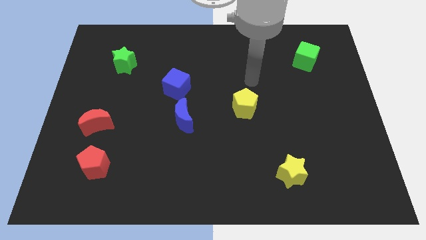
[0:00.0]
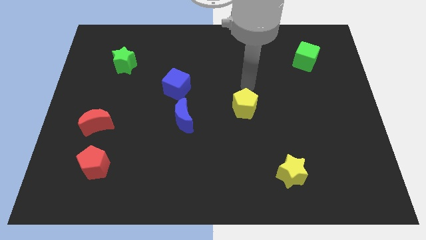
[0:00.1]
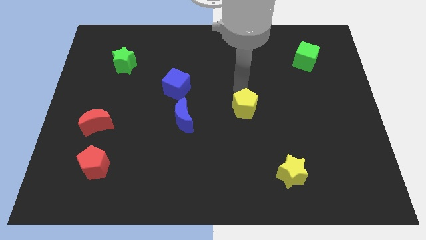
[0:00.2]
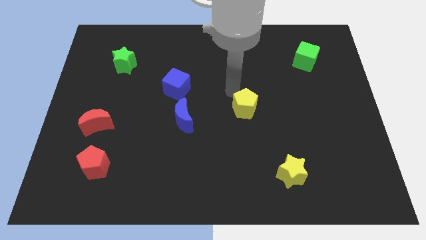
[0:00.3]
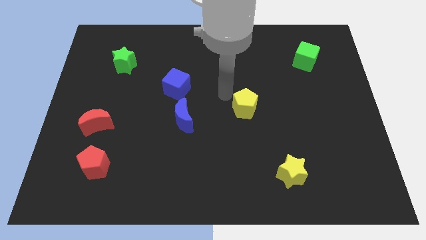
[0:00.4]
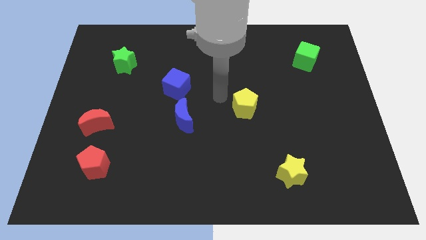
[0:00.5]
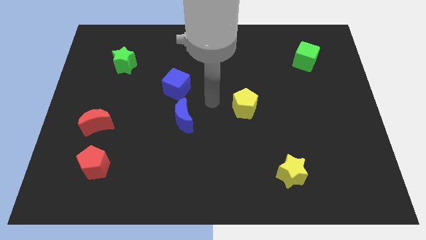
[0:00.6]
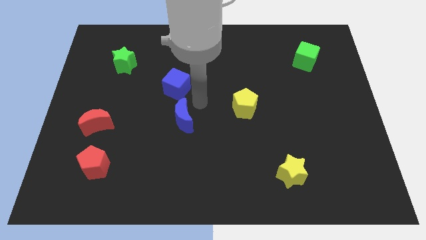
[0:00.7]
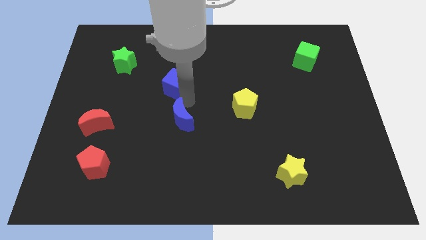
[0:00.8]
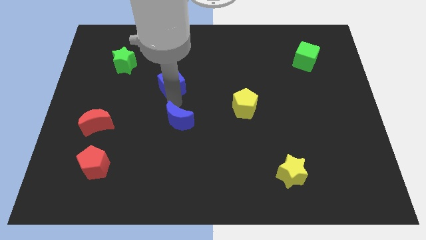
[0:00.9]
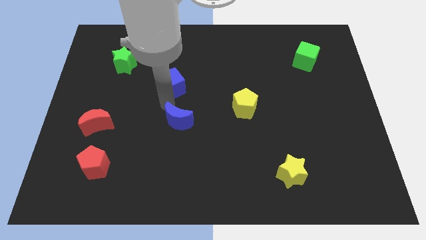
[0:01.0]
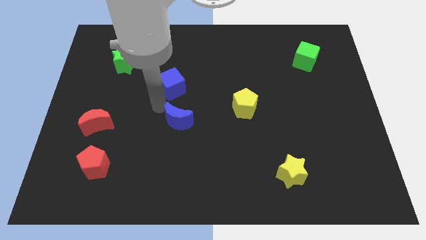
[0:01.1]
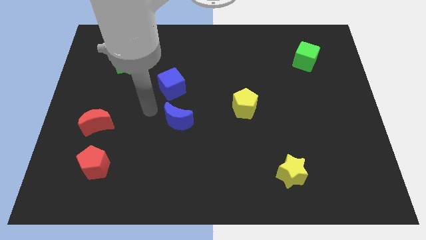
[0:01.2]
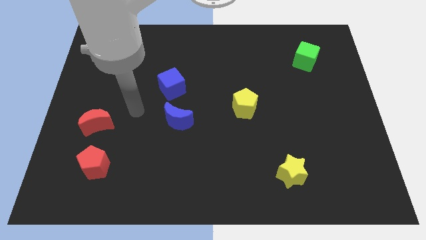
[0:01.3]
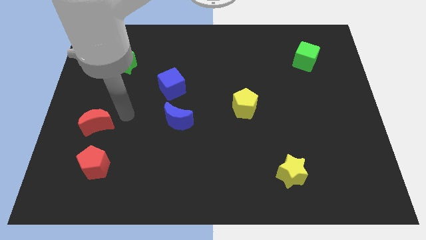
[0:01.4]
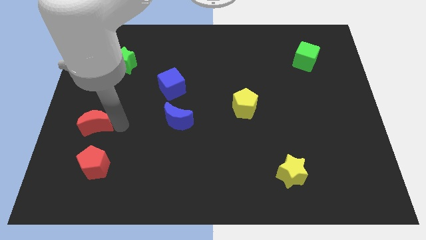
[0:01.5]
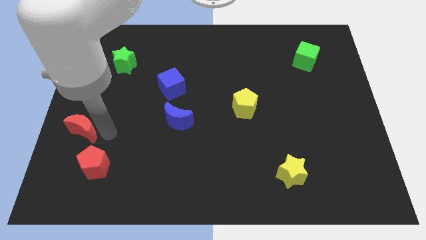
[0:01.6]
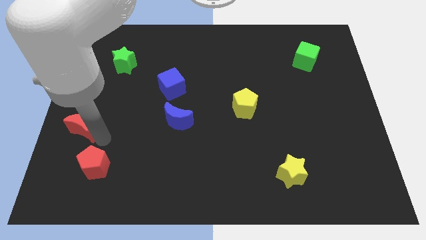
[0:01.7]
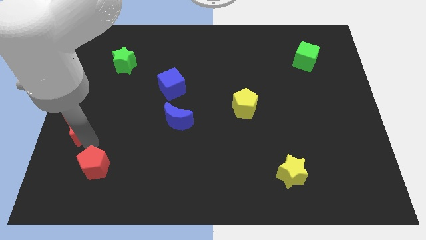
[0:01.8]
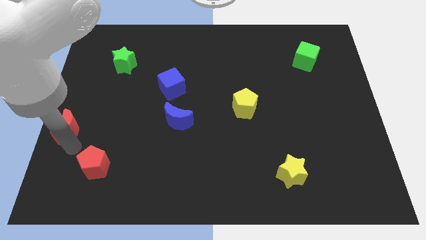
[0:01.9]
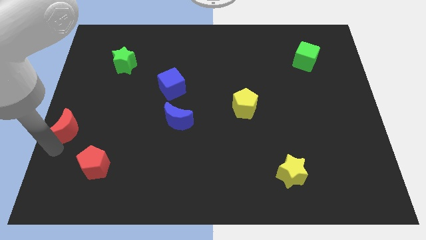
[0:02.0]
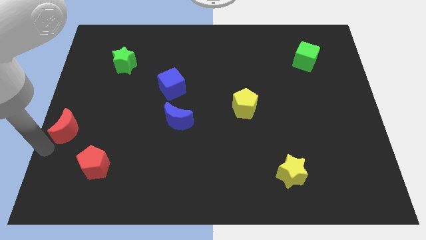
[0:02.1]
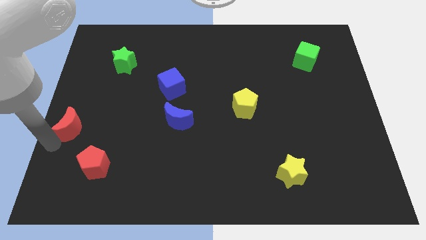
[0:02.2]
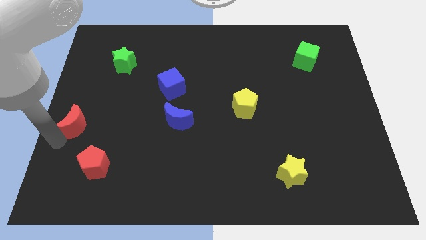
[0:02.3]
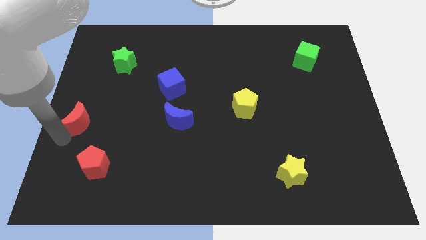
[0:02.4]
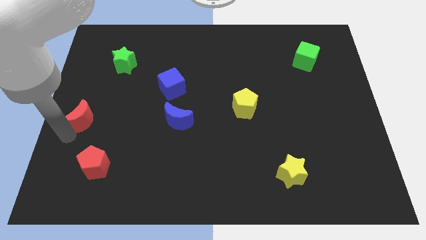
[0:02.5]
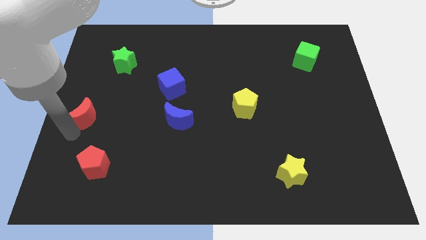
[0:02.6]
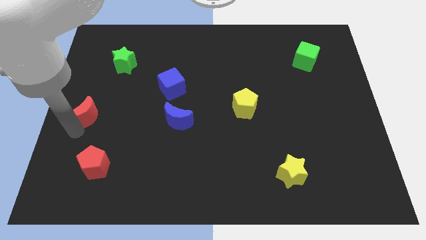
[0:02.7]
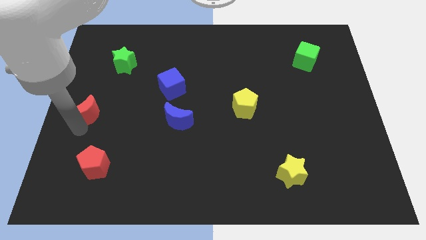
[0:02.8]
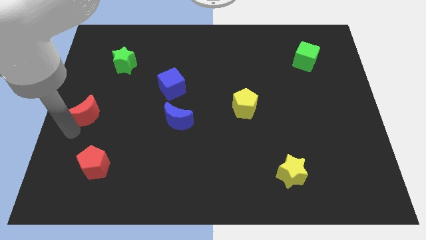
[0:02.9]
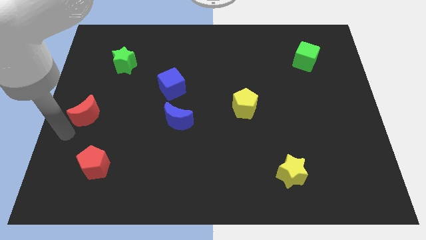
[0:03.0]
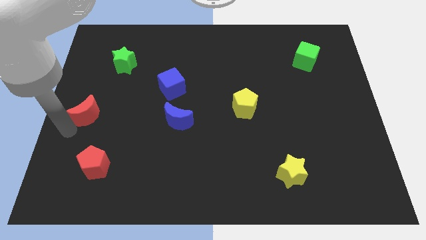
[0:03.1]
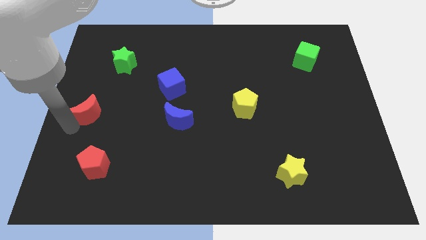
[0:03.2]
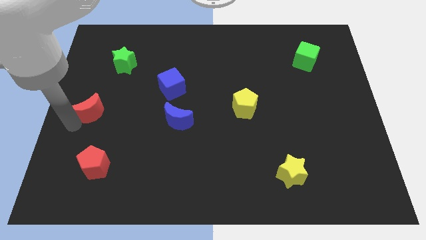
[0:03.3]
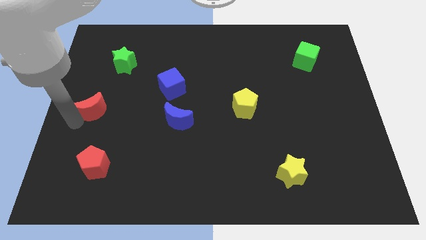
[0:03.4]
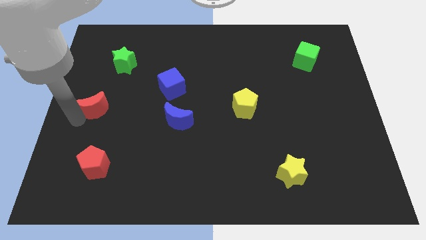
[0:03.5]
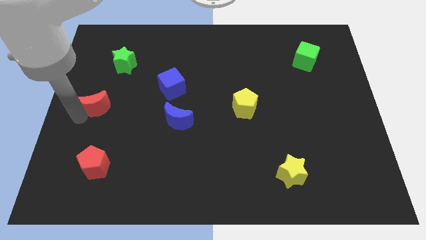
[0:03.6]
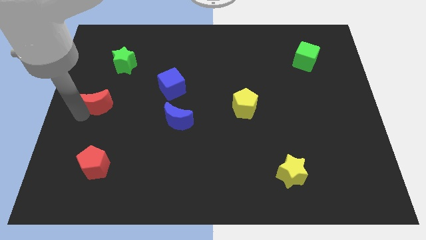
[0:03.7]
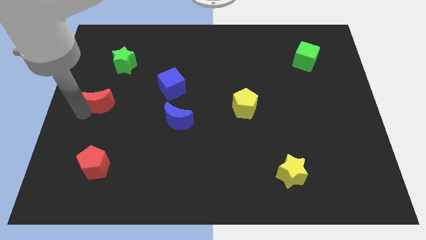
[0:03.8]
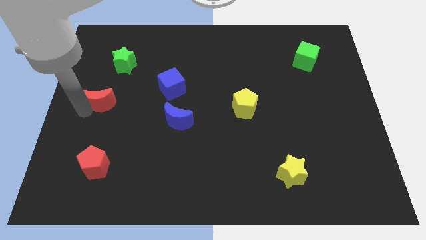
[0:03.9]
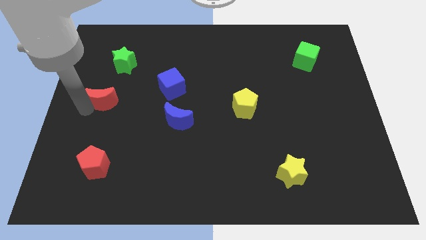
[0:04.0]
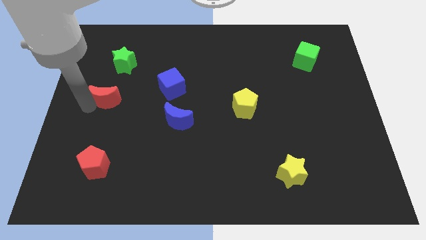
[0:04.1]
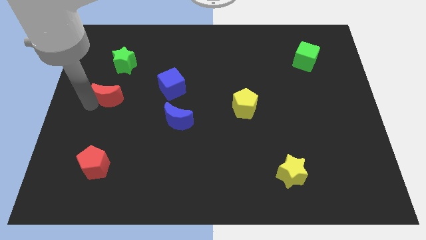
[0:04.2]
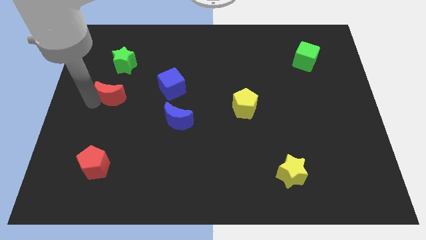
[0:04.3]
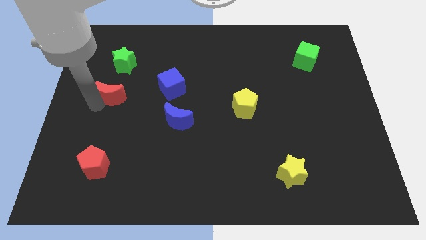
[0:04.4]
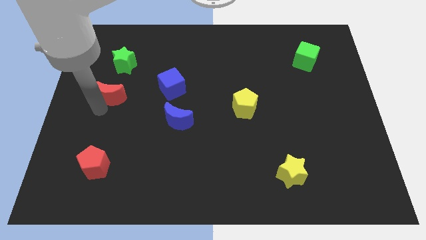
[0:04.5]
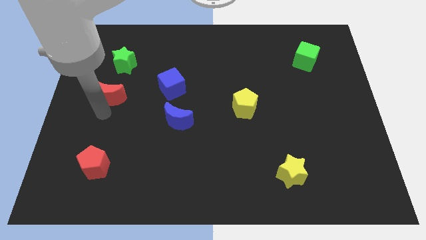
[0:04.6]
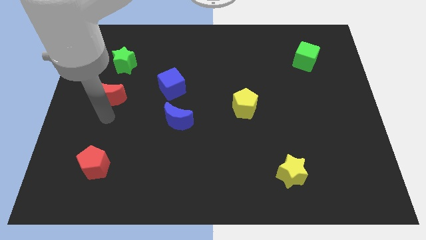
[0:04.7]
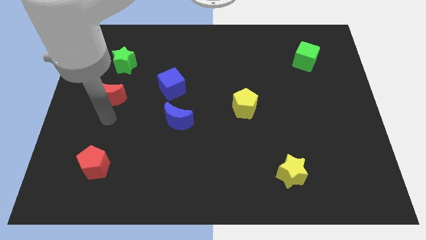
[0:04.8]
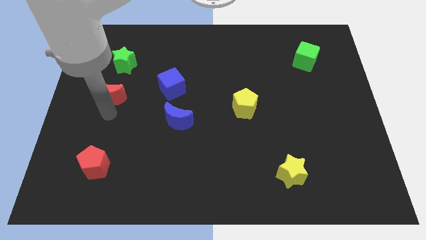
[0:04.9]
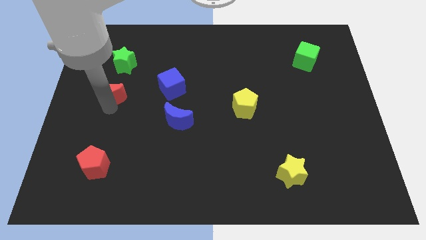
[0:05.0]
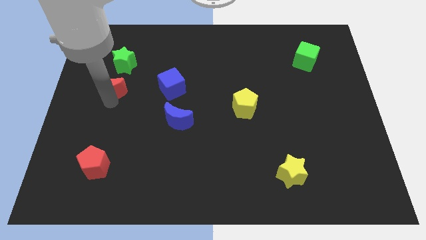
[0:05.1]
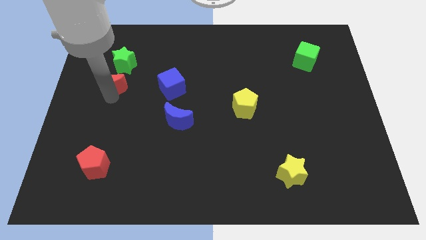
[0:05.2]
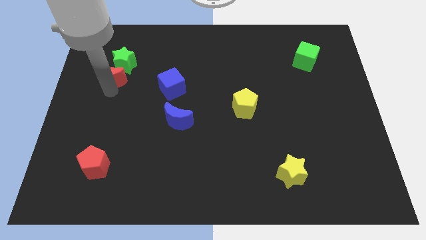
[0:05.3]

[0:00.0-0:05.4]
put the red moon next to the green star

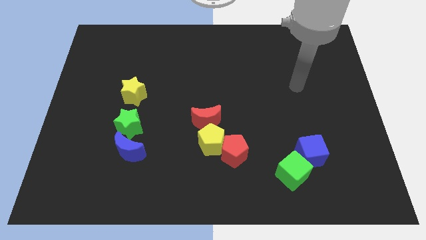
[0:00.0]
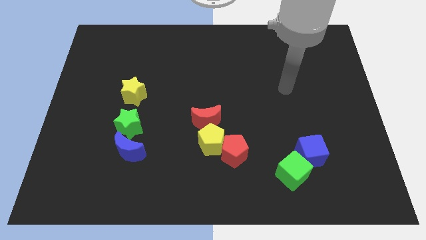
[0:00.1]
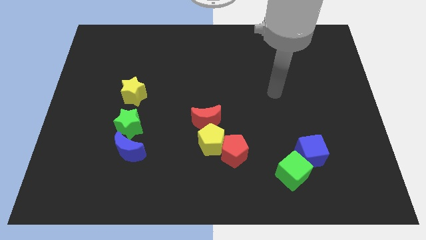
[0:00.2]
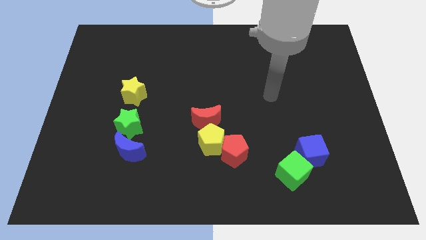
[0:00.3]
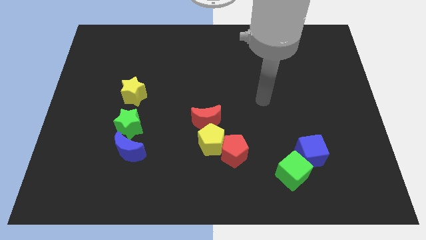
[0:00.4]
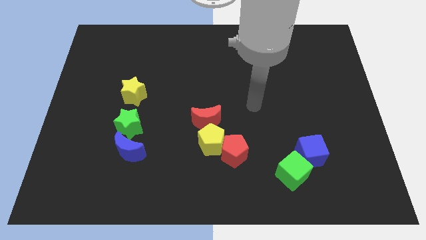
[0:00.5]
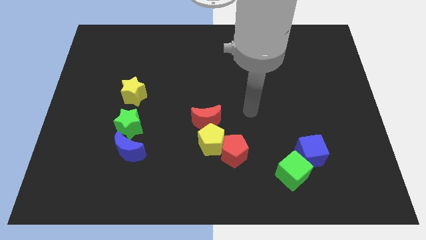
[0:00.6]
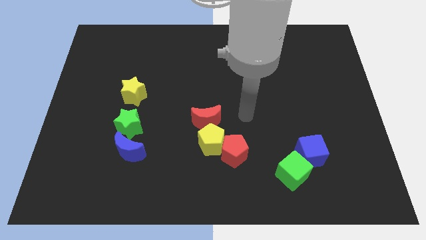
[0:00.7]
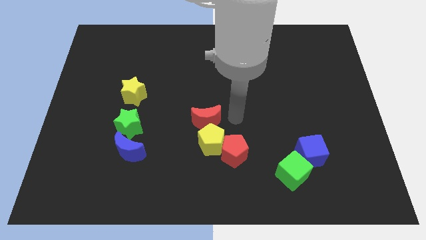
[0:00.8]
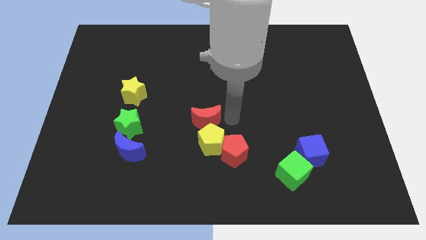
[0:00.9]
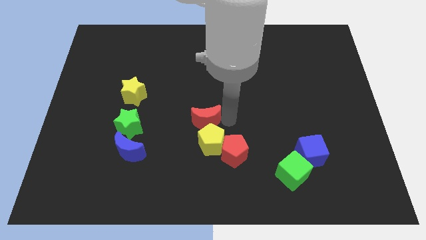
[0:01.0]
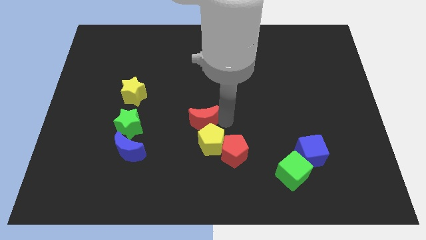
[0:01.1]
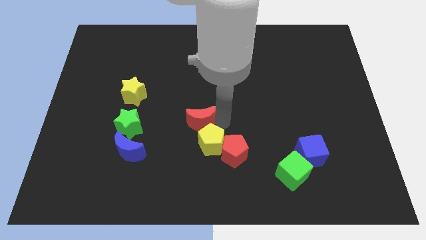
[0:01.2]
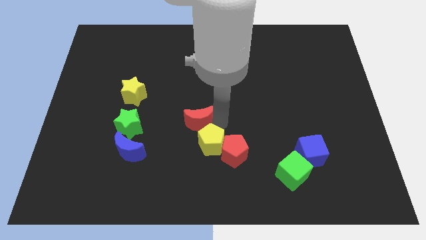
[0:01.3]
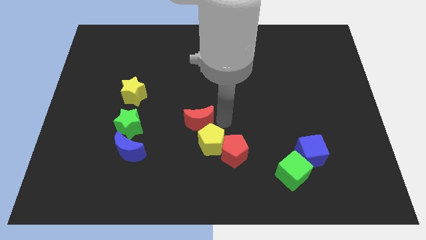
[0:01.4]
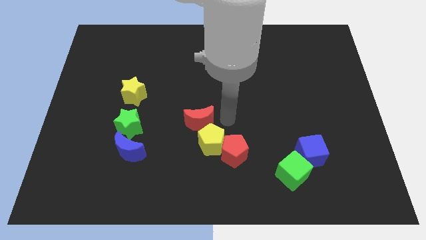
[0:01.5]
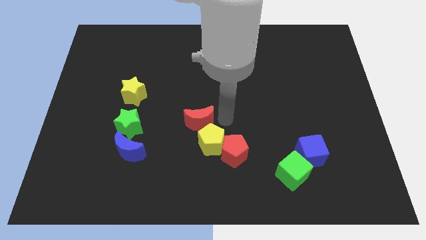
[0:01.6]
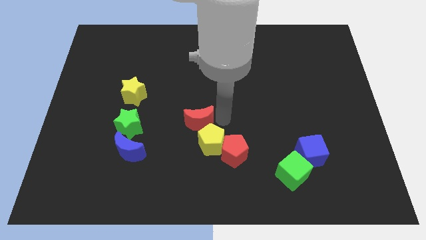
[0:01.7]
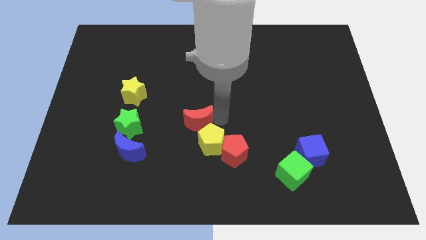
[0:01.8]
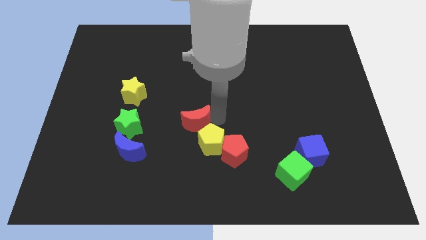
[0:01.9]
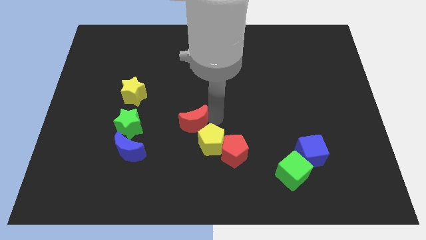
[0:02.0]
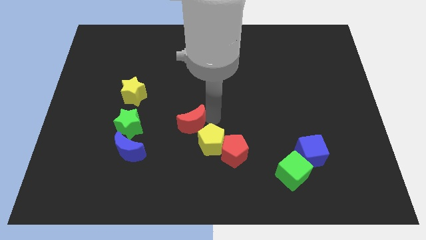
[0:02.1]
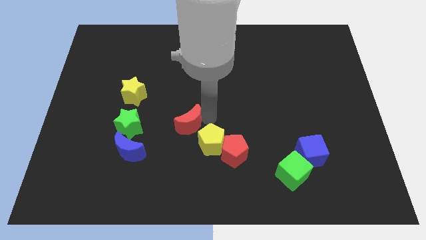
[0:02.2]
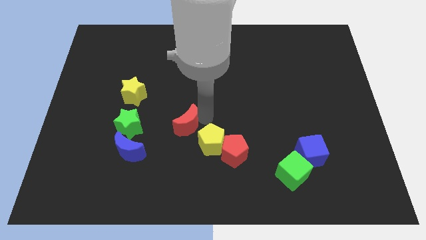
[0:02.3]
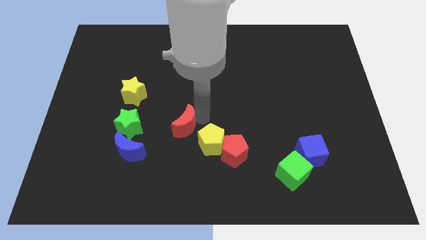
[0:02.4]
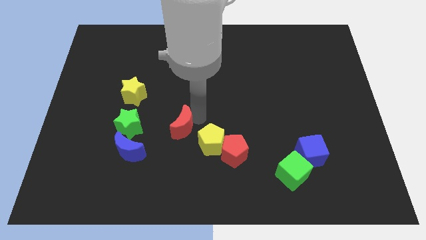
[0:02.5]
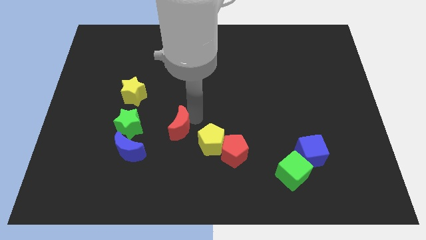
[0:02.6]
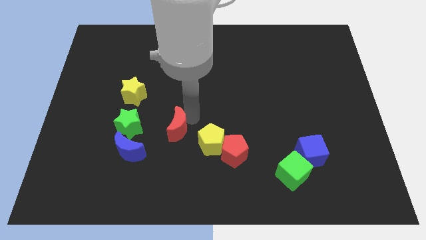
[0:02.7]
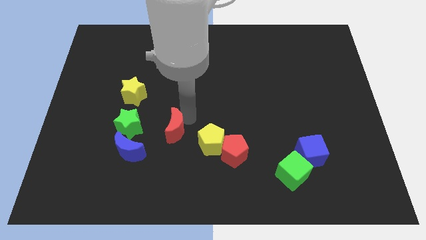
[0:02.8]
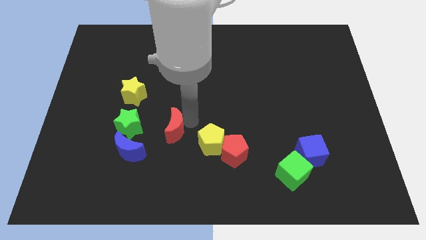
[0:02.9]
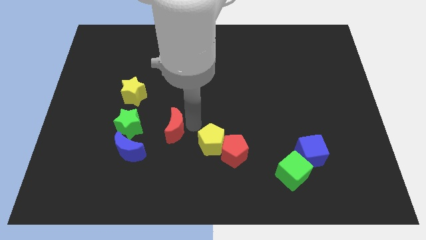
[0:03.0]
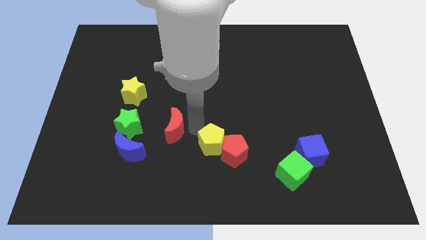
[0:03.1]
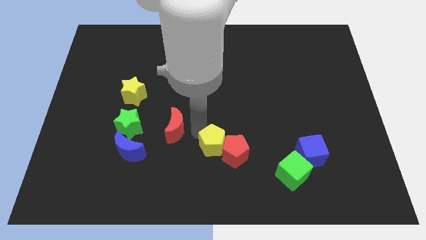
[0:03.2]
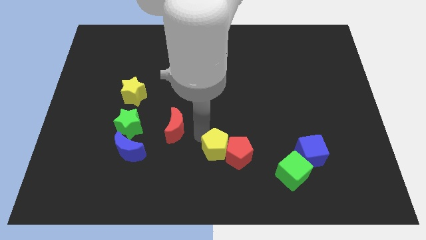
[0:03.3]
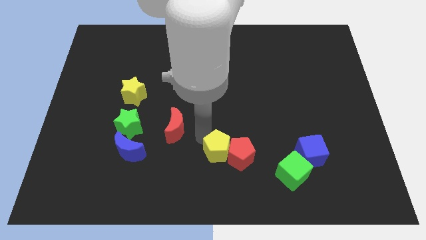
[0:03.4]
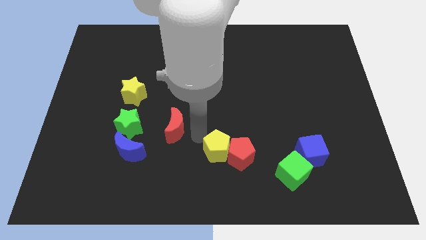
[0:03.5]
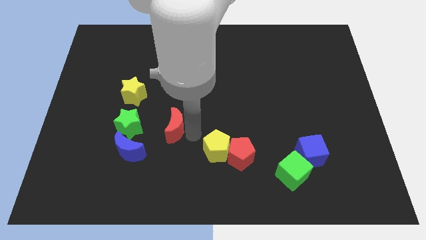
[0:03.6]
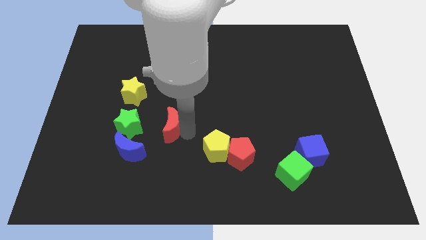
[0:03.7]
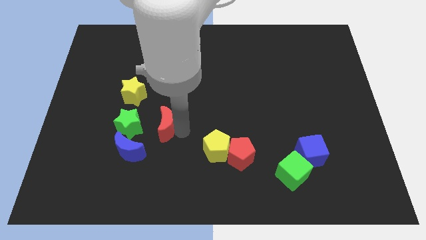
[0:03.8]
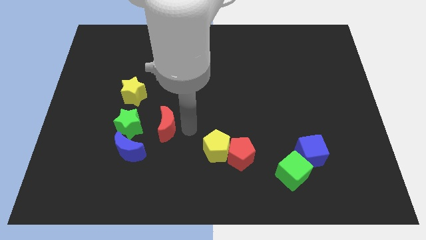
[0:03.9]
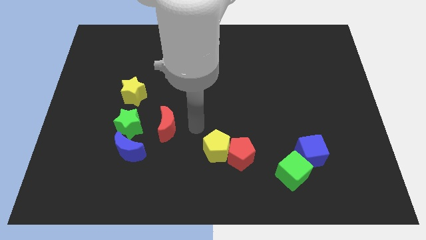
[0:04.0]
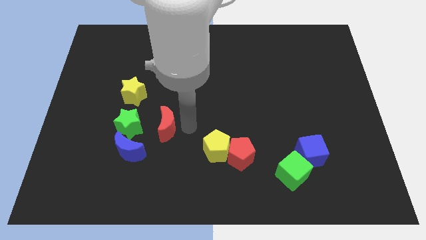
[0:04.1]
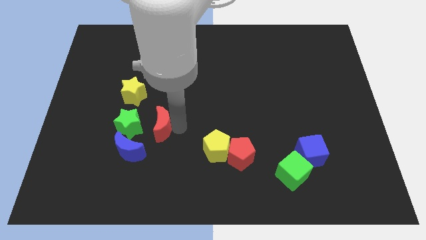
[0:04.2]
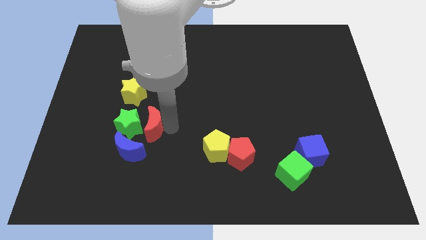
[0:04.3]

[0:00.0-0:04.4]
push the red moon towards the green star
